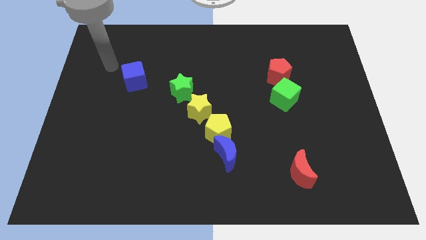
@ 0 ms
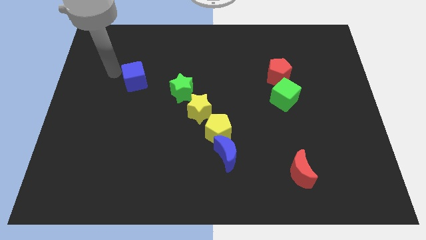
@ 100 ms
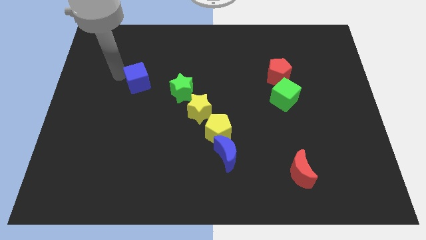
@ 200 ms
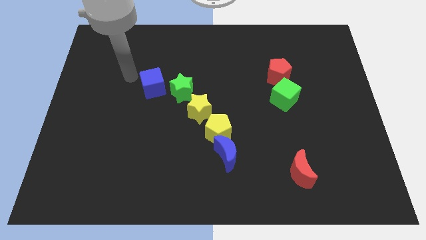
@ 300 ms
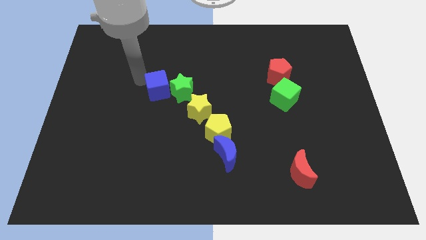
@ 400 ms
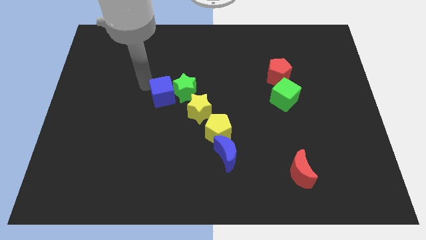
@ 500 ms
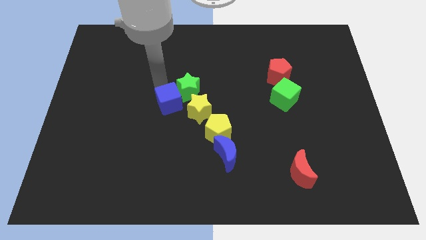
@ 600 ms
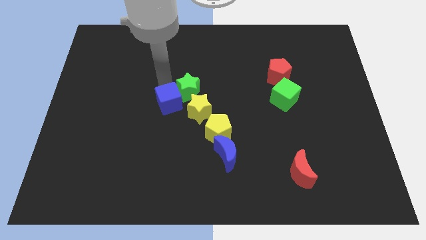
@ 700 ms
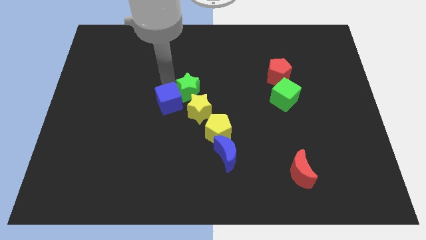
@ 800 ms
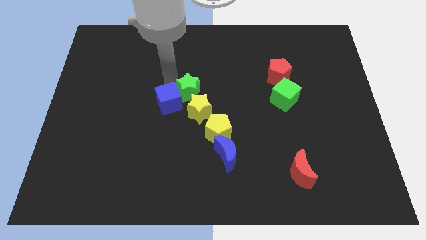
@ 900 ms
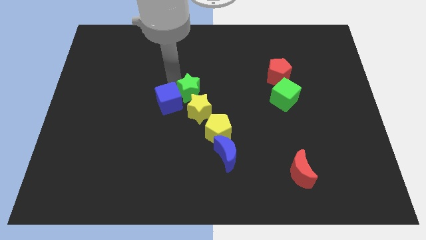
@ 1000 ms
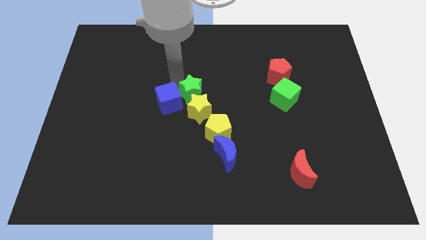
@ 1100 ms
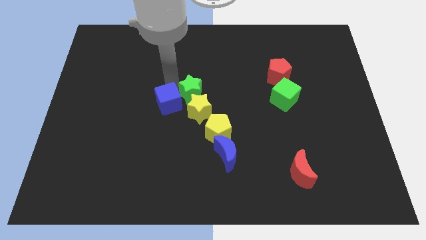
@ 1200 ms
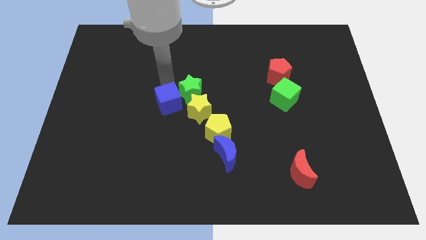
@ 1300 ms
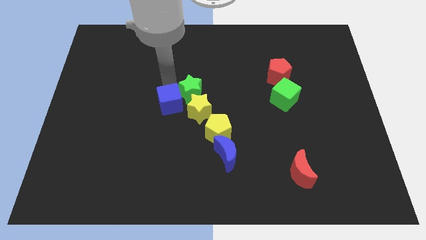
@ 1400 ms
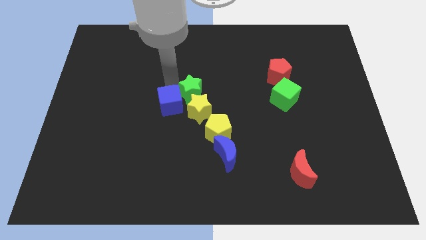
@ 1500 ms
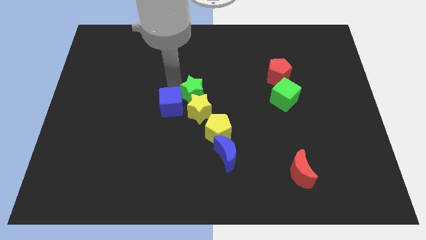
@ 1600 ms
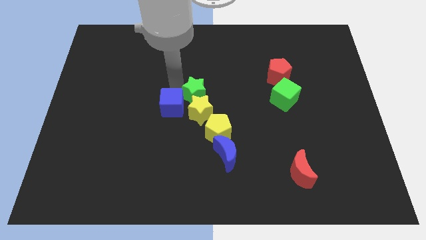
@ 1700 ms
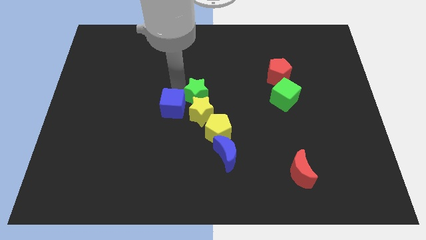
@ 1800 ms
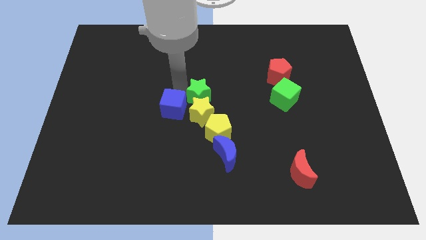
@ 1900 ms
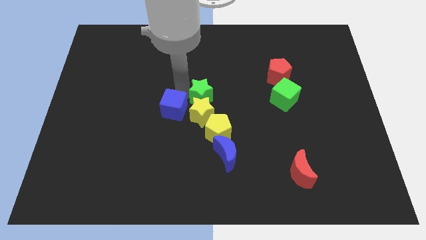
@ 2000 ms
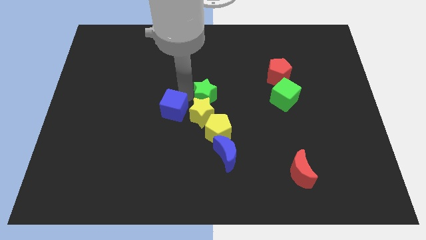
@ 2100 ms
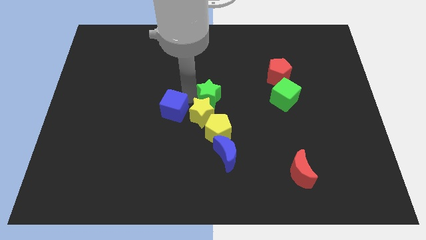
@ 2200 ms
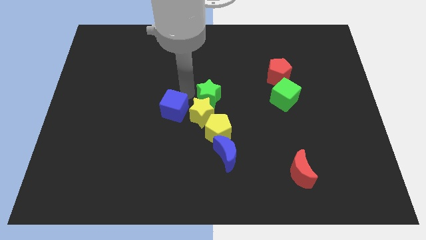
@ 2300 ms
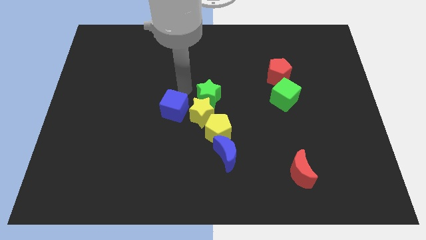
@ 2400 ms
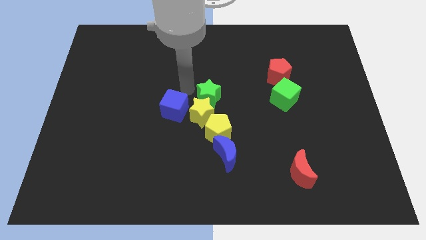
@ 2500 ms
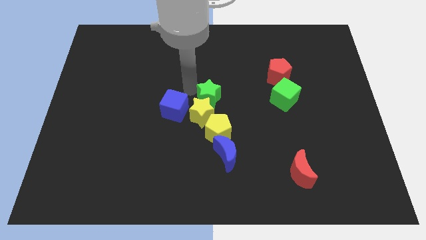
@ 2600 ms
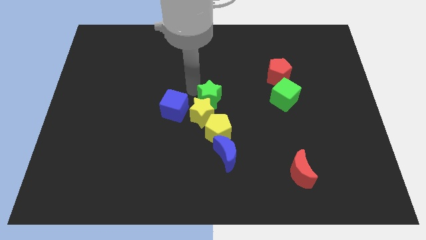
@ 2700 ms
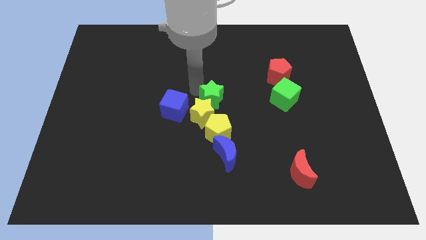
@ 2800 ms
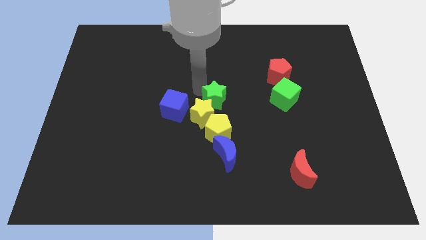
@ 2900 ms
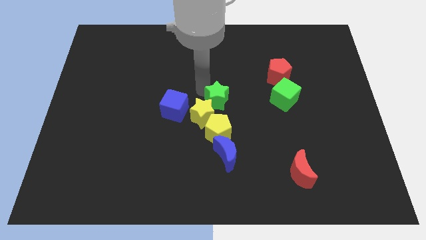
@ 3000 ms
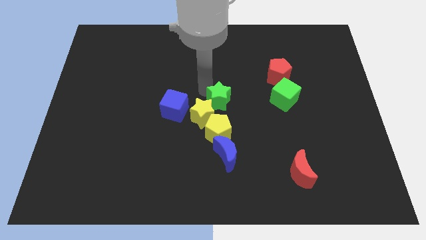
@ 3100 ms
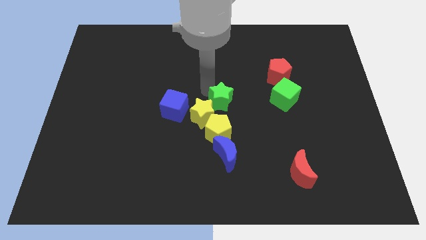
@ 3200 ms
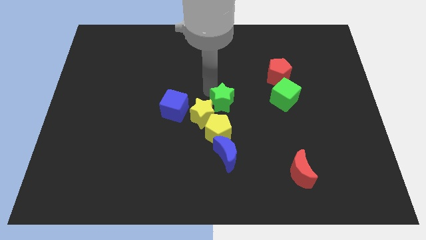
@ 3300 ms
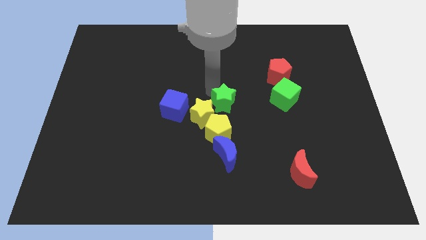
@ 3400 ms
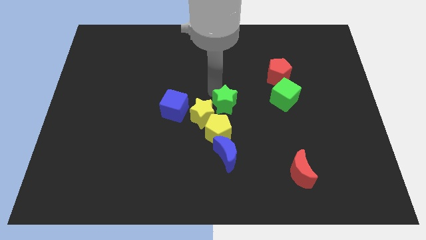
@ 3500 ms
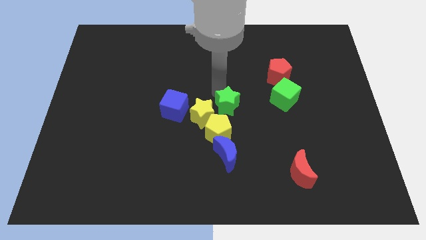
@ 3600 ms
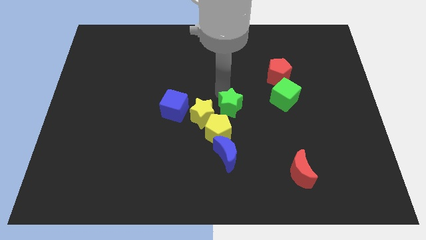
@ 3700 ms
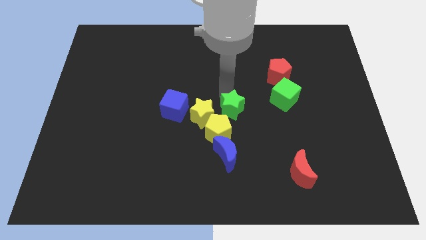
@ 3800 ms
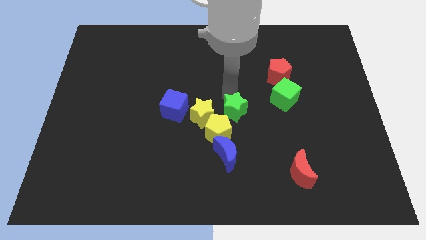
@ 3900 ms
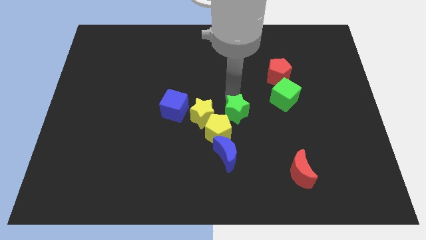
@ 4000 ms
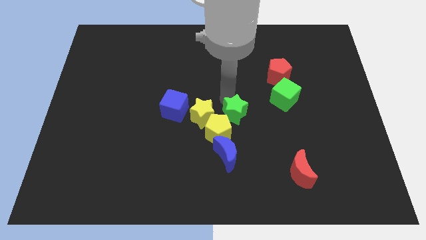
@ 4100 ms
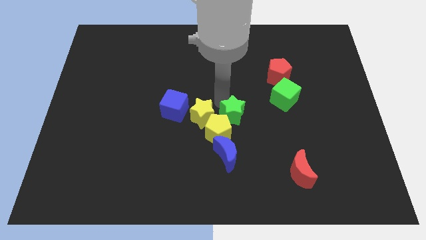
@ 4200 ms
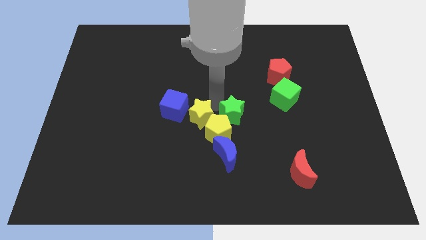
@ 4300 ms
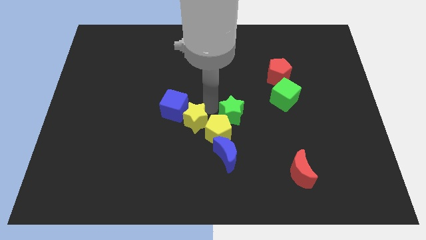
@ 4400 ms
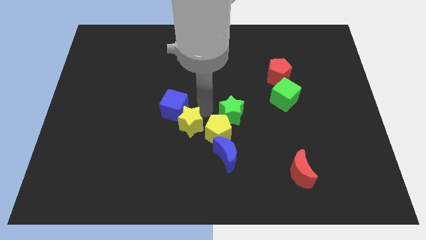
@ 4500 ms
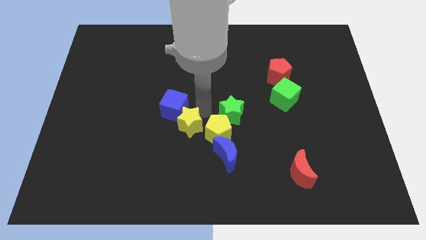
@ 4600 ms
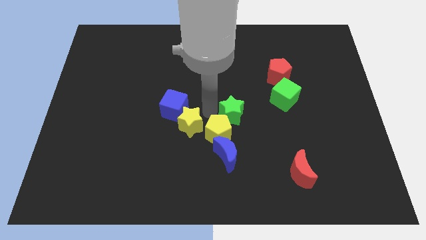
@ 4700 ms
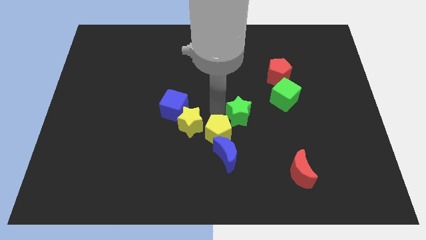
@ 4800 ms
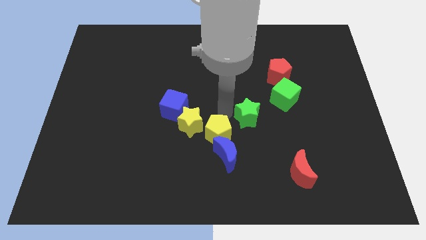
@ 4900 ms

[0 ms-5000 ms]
push the green star to the bottom left side of the green cube

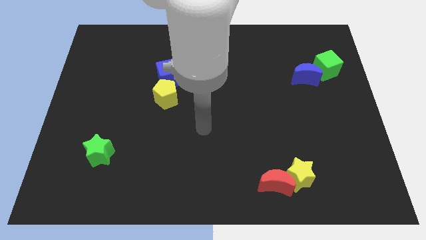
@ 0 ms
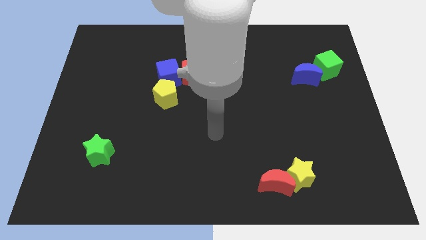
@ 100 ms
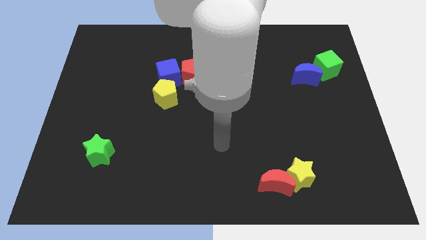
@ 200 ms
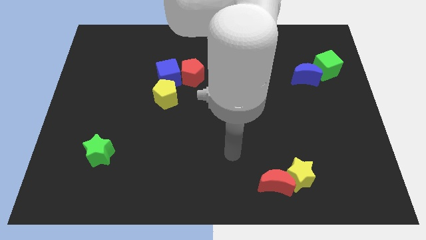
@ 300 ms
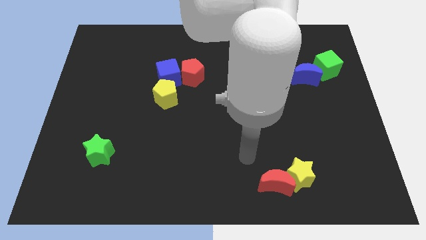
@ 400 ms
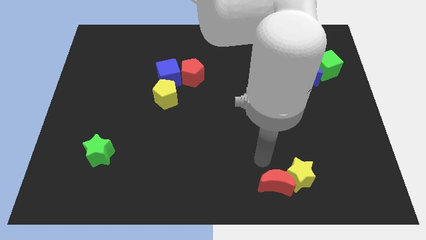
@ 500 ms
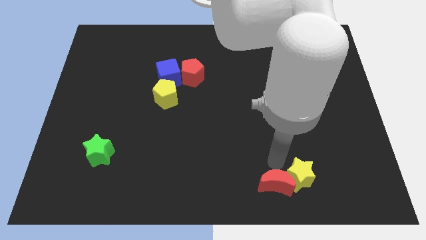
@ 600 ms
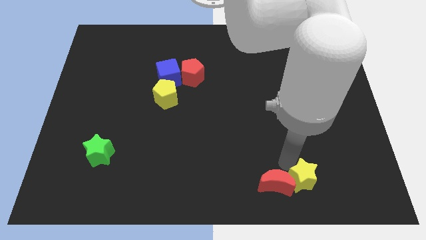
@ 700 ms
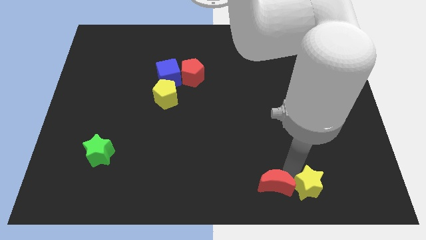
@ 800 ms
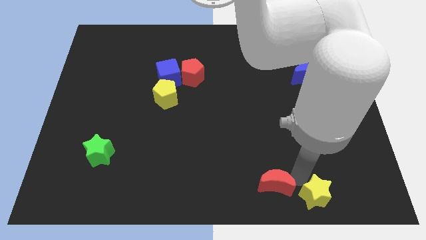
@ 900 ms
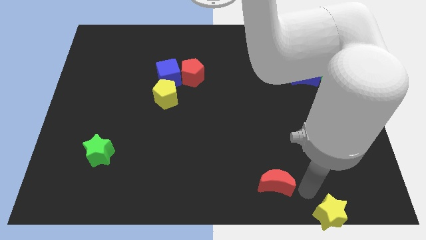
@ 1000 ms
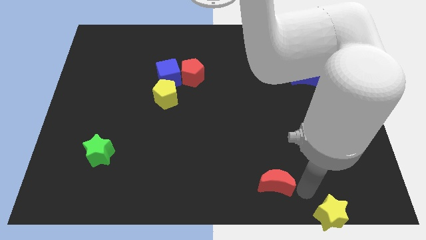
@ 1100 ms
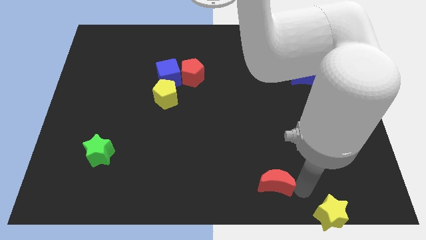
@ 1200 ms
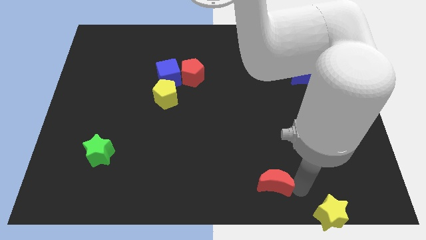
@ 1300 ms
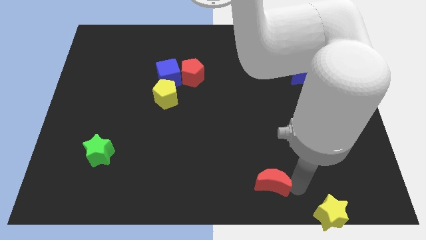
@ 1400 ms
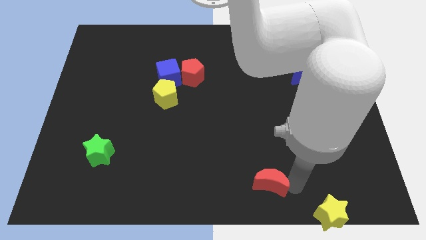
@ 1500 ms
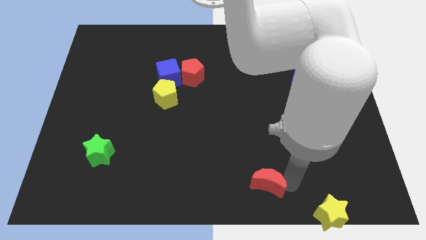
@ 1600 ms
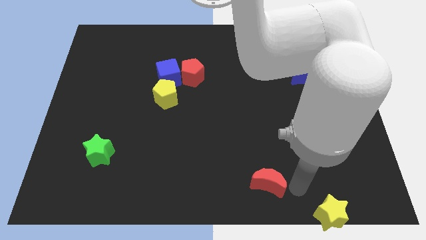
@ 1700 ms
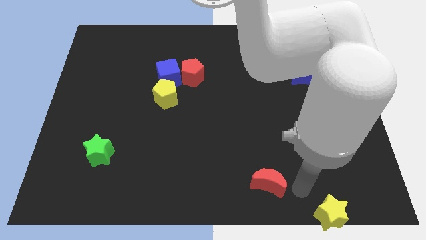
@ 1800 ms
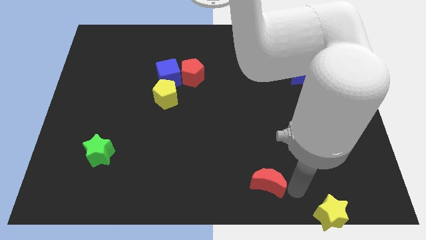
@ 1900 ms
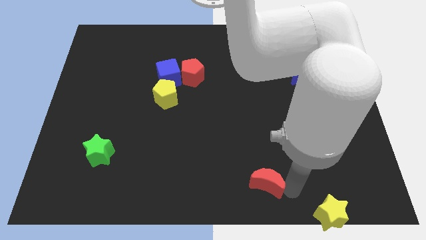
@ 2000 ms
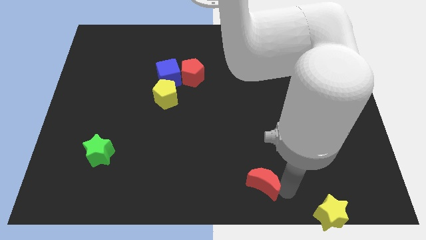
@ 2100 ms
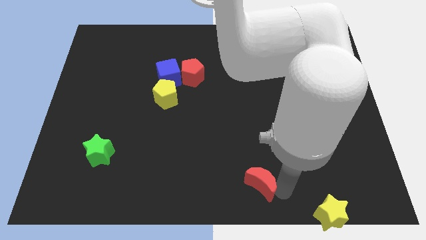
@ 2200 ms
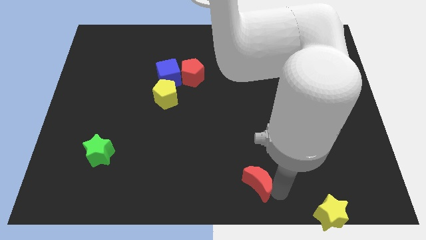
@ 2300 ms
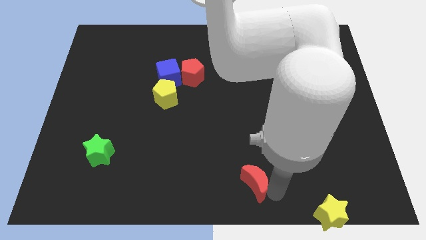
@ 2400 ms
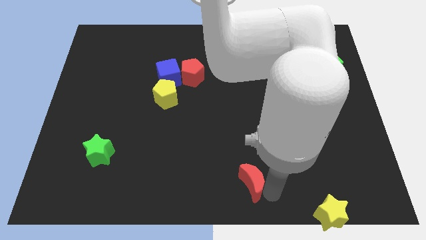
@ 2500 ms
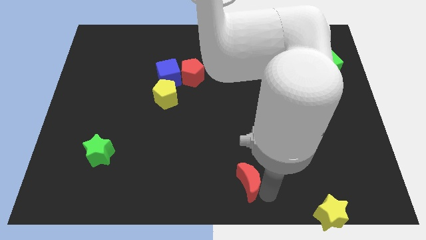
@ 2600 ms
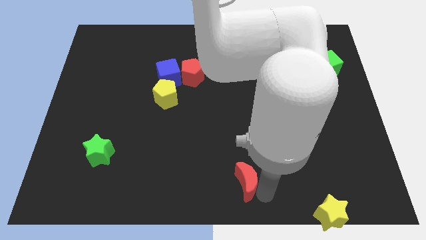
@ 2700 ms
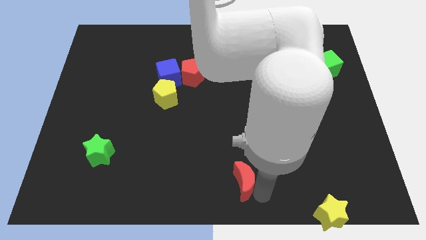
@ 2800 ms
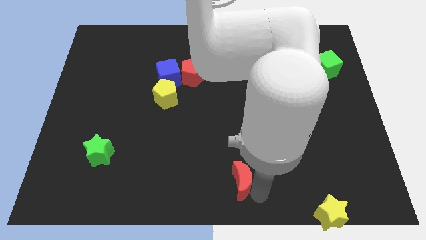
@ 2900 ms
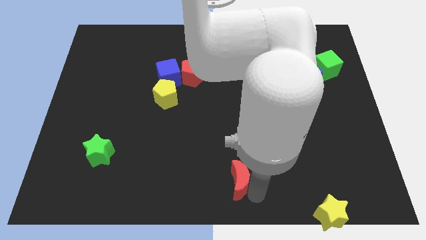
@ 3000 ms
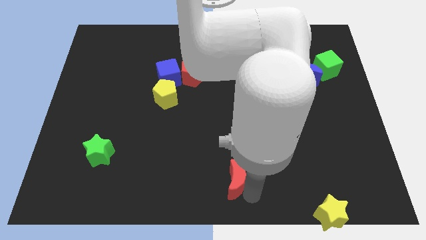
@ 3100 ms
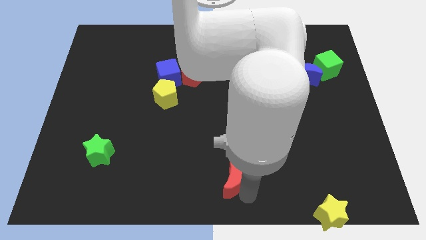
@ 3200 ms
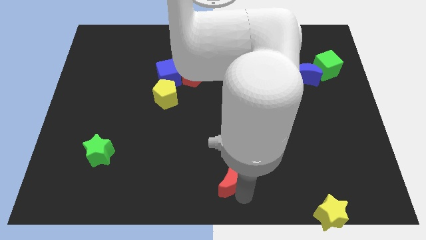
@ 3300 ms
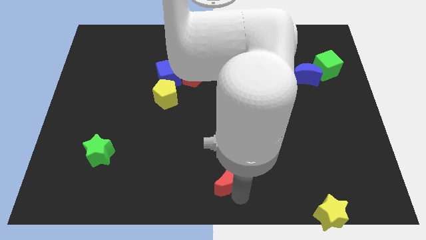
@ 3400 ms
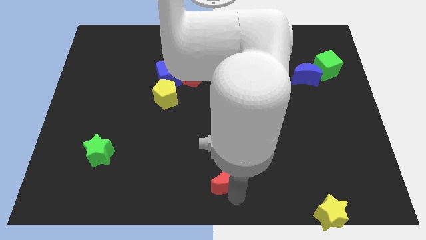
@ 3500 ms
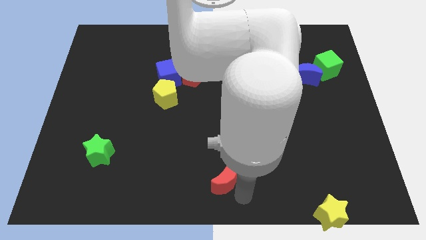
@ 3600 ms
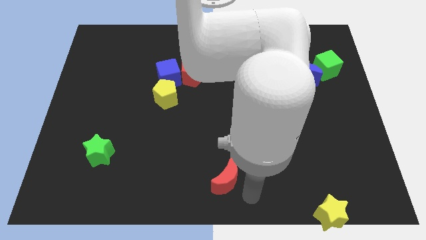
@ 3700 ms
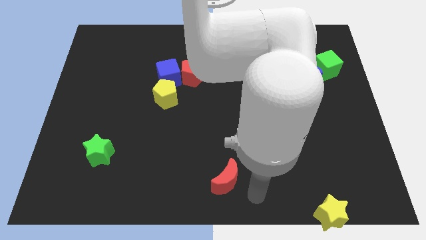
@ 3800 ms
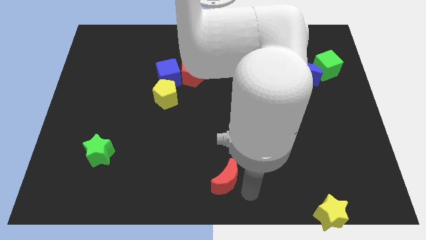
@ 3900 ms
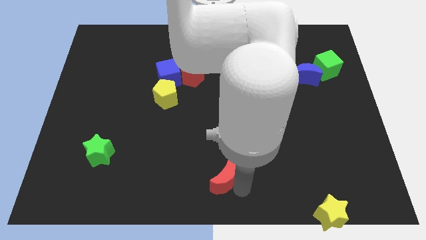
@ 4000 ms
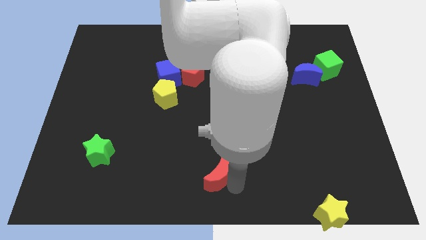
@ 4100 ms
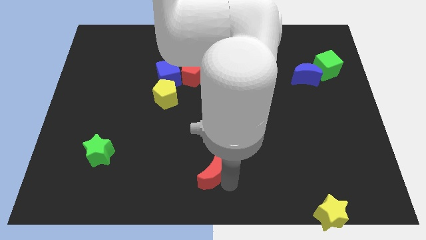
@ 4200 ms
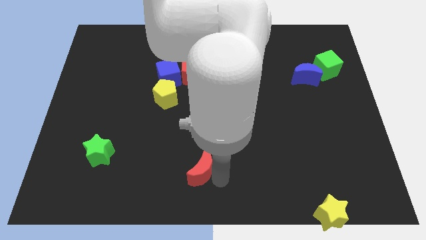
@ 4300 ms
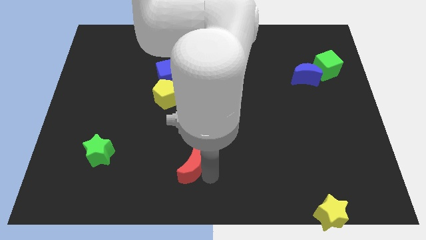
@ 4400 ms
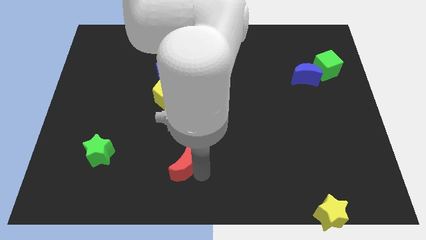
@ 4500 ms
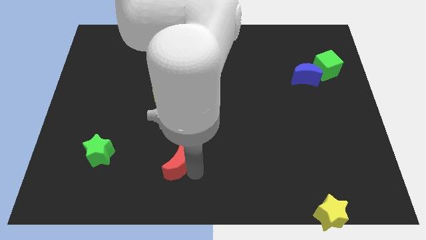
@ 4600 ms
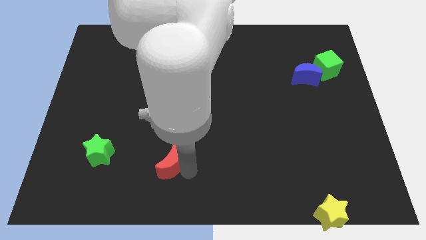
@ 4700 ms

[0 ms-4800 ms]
move the red moon to the right of the green star
